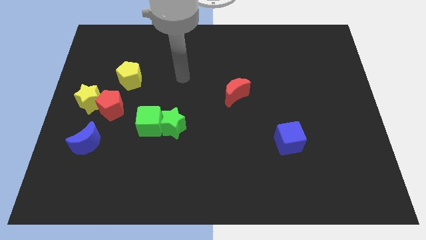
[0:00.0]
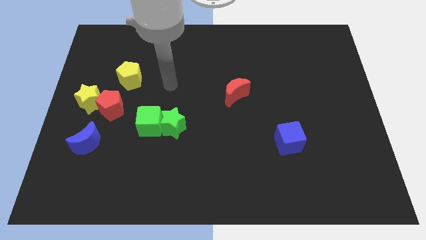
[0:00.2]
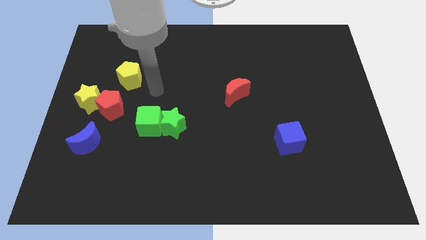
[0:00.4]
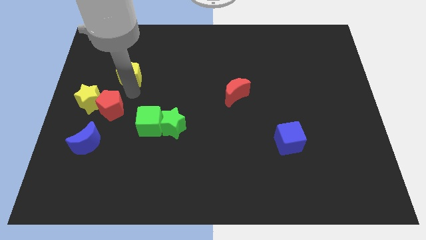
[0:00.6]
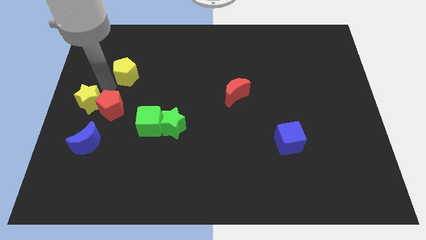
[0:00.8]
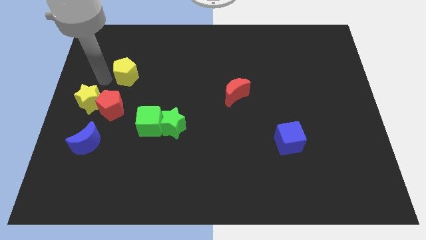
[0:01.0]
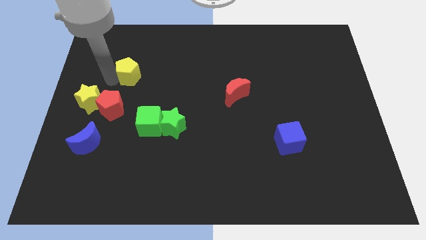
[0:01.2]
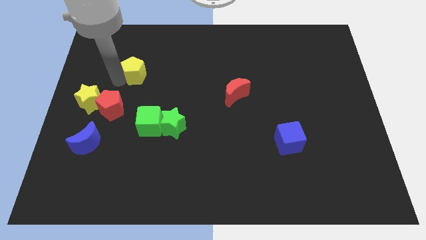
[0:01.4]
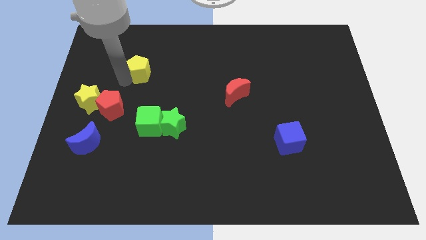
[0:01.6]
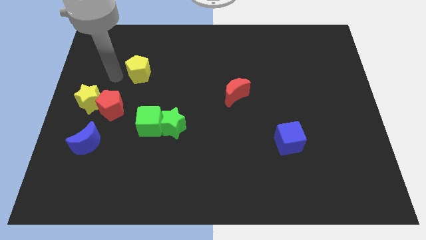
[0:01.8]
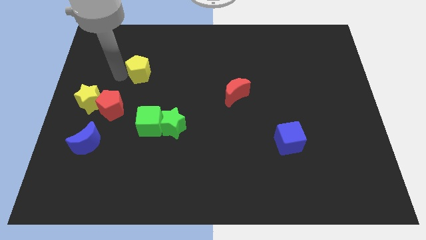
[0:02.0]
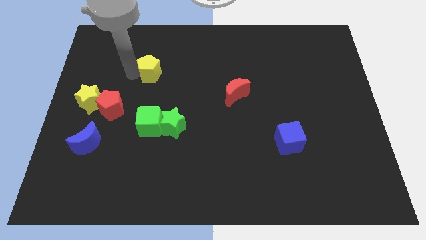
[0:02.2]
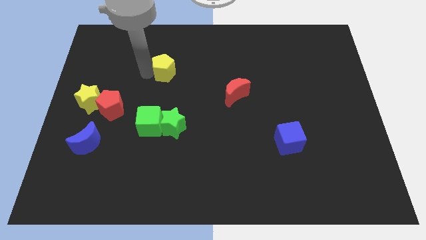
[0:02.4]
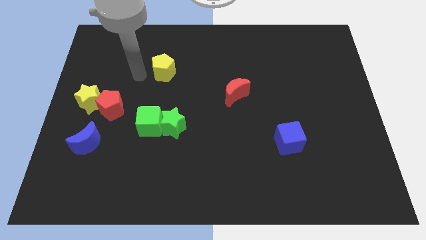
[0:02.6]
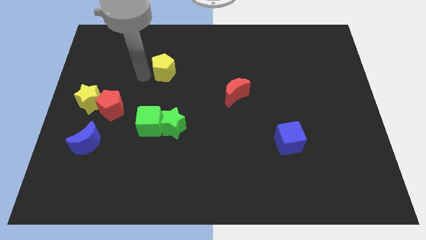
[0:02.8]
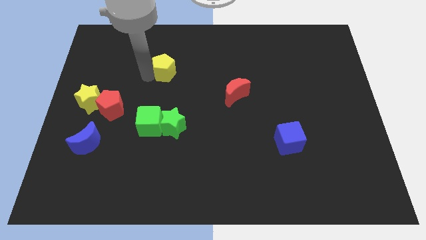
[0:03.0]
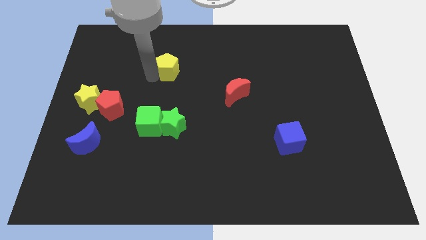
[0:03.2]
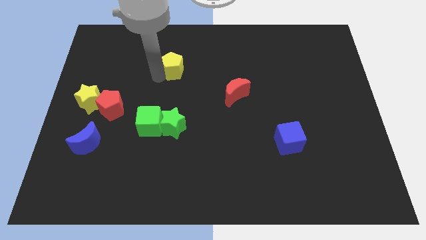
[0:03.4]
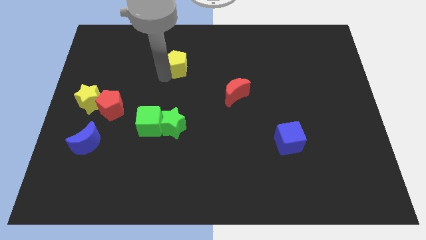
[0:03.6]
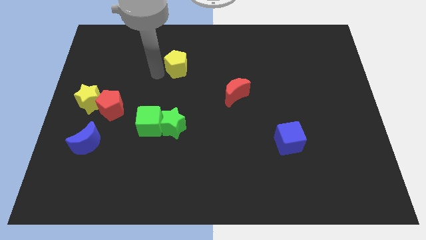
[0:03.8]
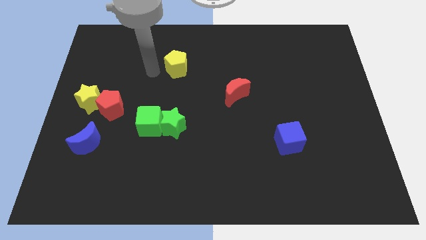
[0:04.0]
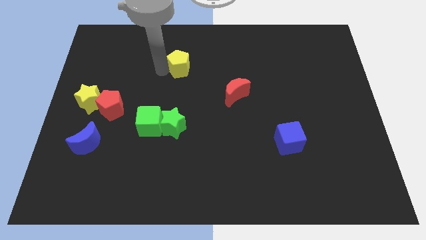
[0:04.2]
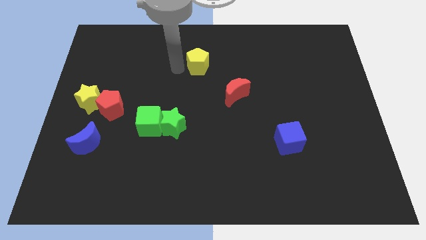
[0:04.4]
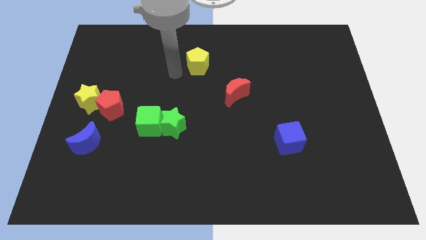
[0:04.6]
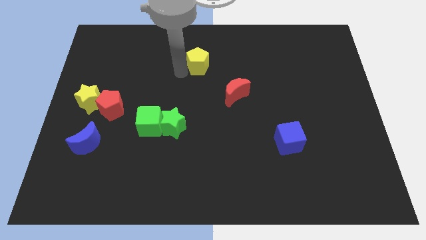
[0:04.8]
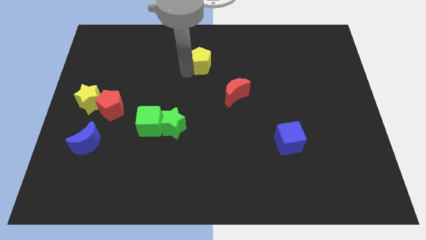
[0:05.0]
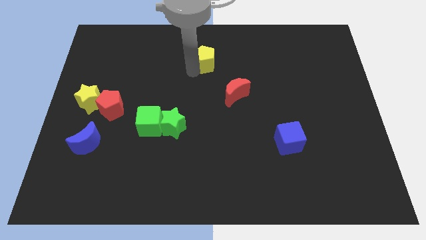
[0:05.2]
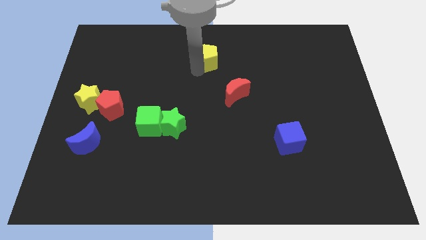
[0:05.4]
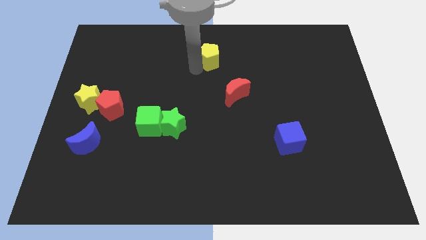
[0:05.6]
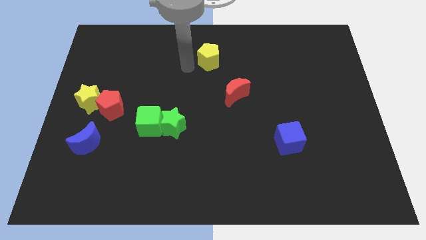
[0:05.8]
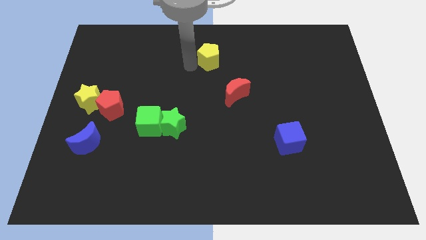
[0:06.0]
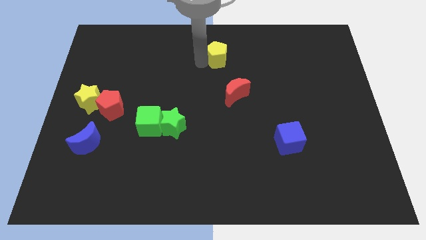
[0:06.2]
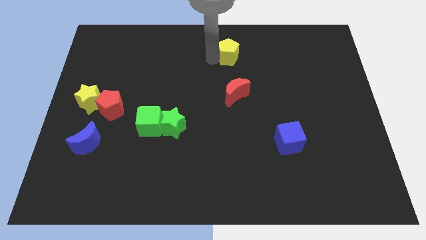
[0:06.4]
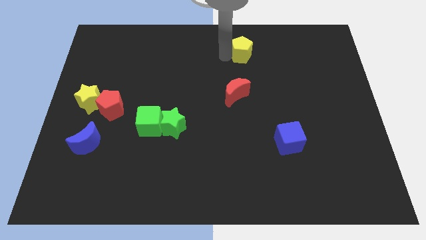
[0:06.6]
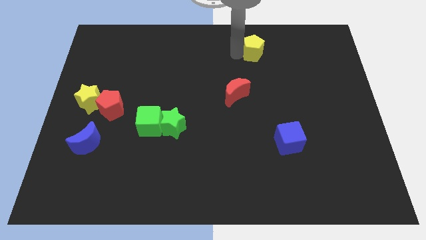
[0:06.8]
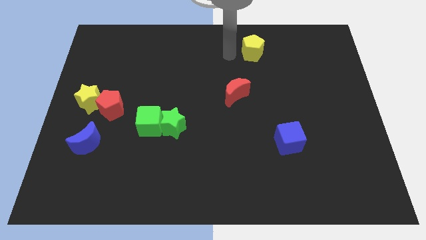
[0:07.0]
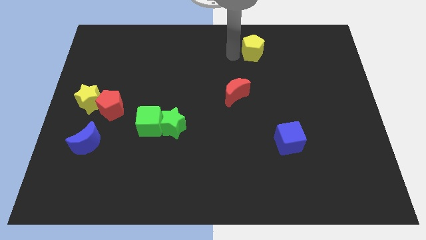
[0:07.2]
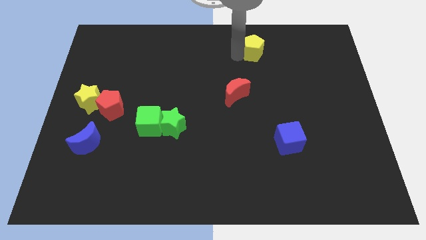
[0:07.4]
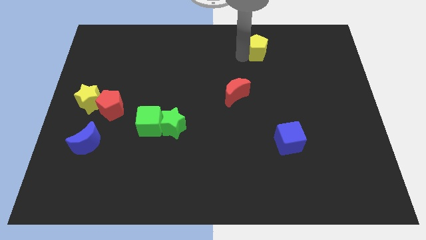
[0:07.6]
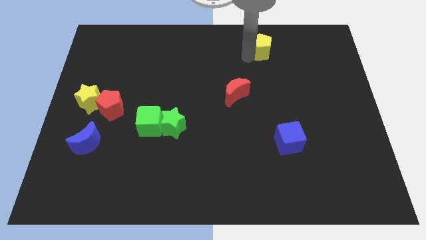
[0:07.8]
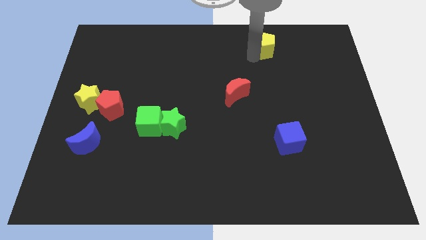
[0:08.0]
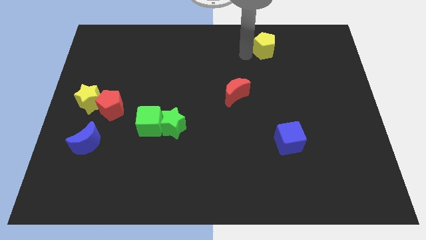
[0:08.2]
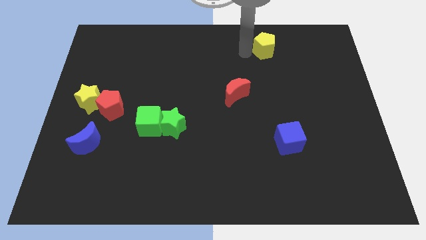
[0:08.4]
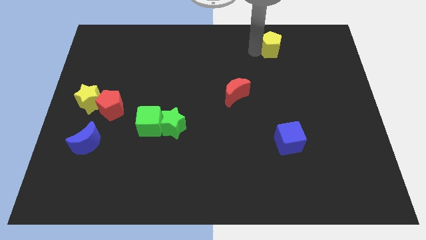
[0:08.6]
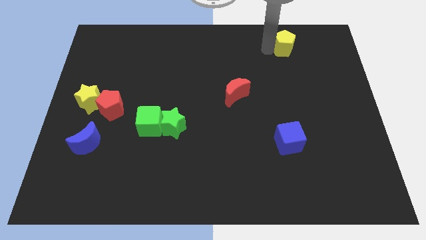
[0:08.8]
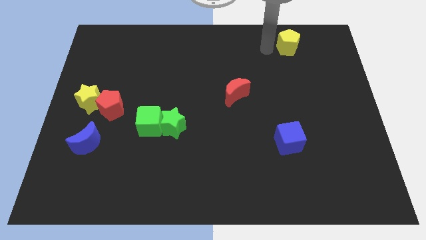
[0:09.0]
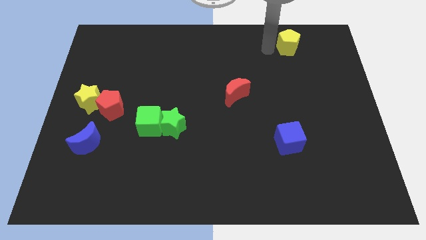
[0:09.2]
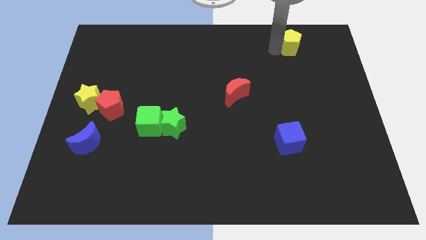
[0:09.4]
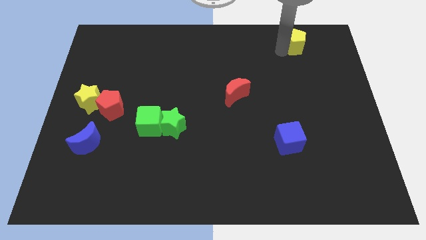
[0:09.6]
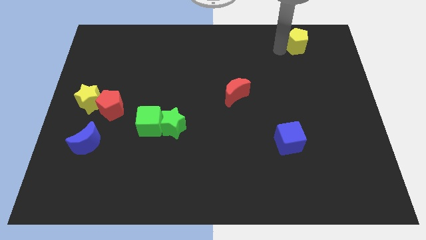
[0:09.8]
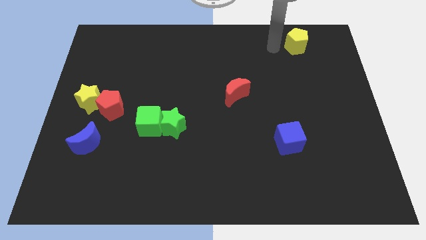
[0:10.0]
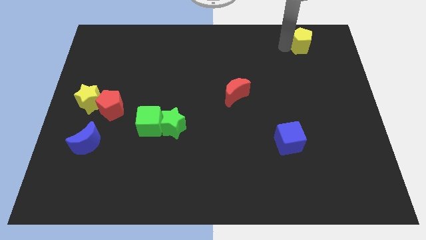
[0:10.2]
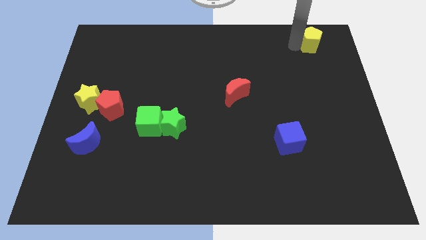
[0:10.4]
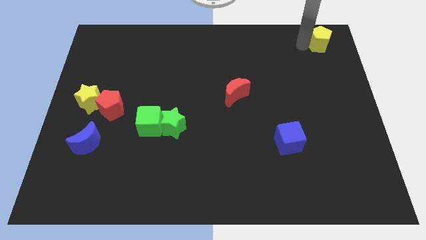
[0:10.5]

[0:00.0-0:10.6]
slide the yellow pentagon to the top right of the board

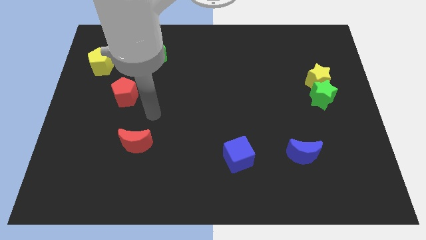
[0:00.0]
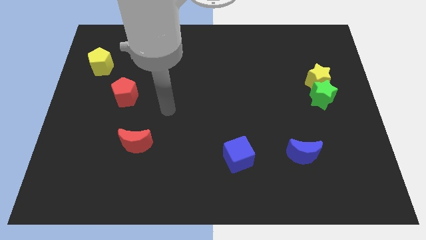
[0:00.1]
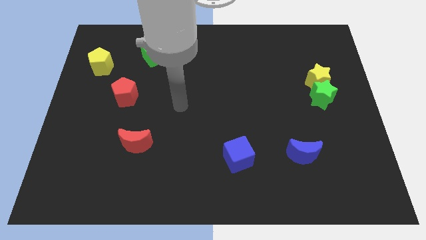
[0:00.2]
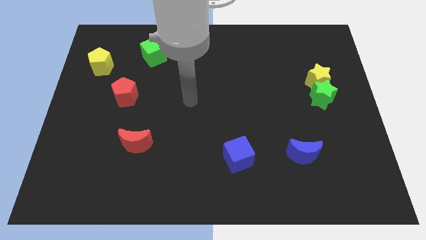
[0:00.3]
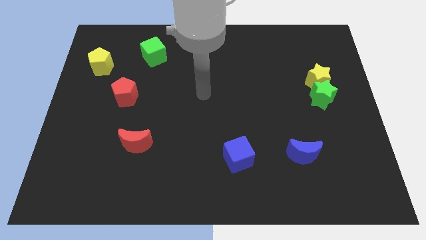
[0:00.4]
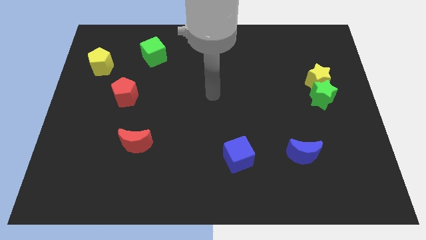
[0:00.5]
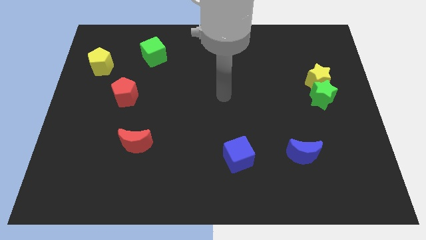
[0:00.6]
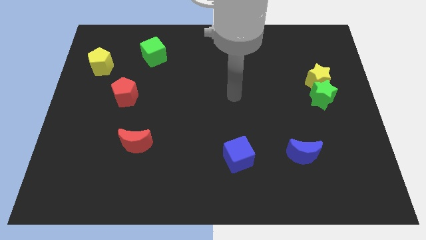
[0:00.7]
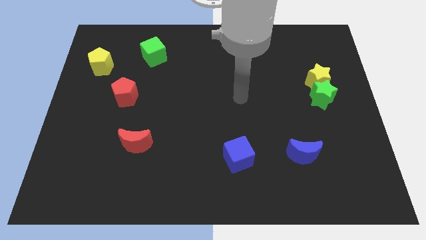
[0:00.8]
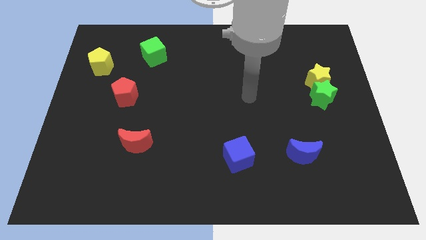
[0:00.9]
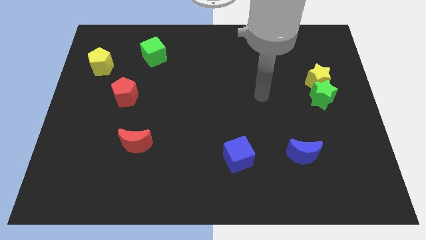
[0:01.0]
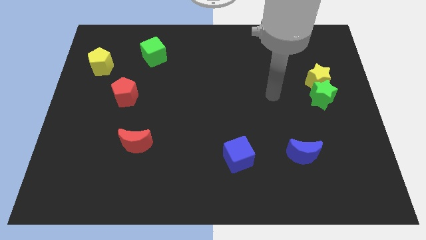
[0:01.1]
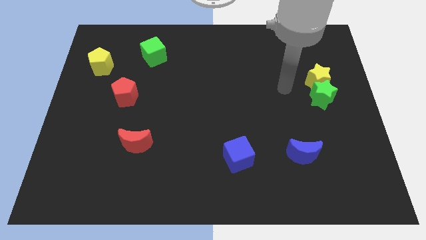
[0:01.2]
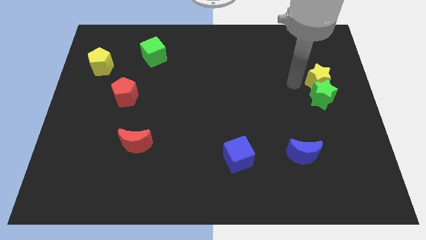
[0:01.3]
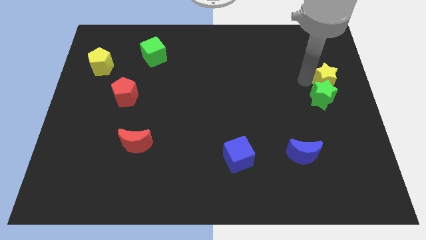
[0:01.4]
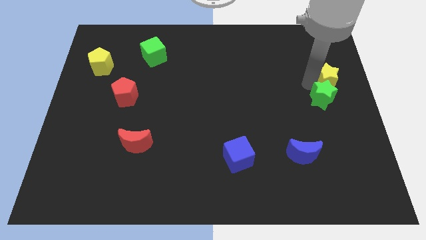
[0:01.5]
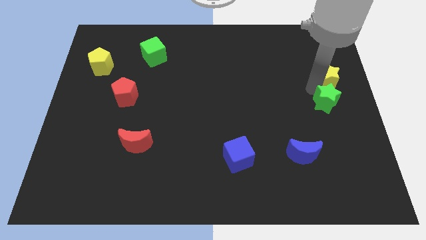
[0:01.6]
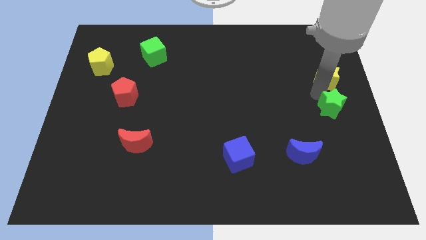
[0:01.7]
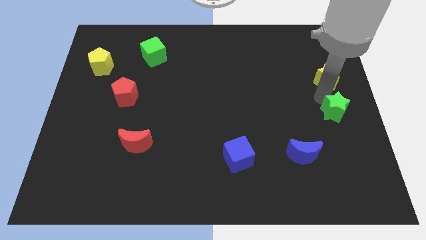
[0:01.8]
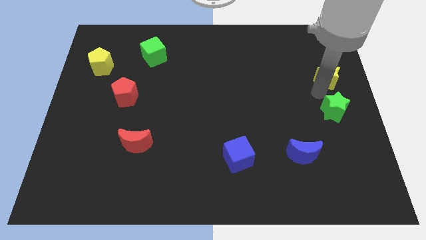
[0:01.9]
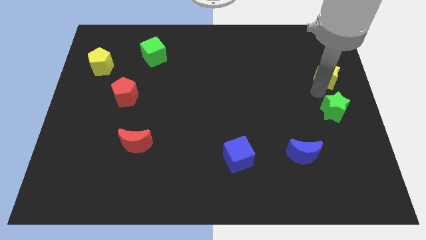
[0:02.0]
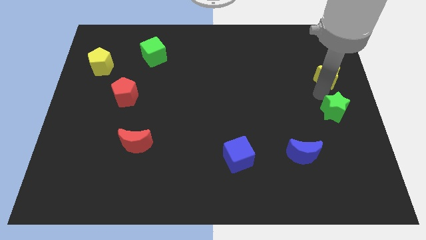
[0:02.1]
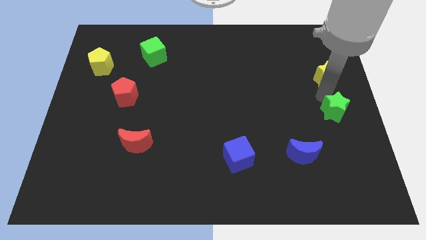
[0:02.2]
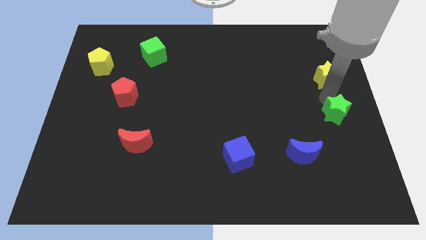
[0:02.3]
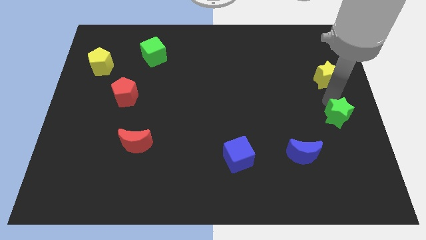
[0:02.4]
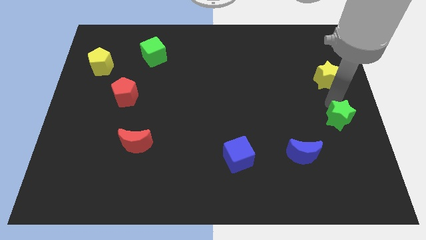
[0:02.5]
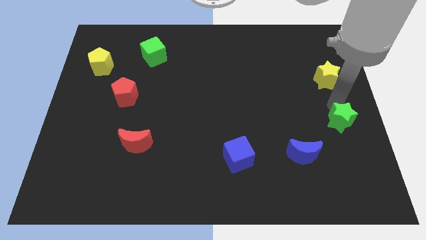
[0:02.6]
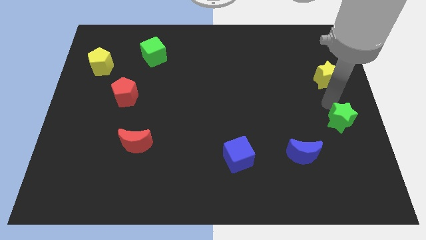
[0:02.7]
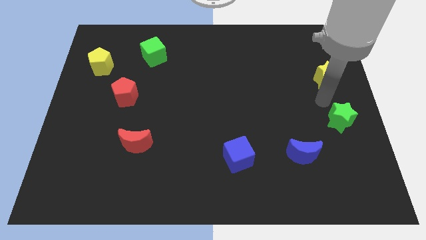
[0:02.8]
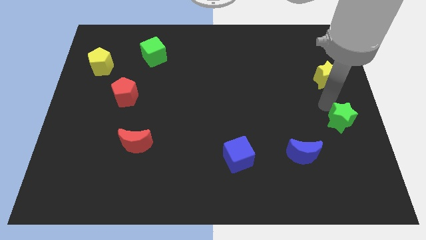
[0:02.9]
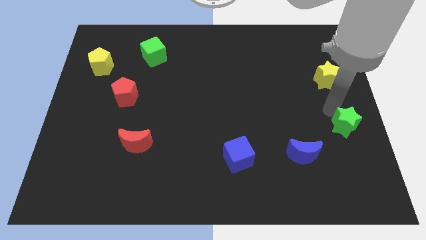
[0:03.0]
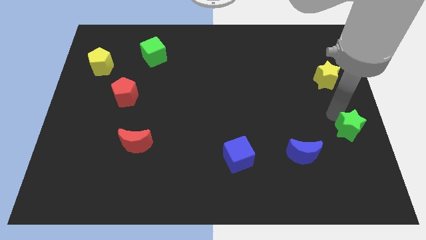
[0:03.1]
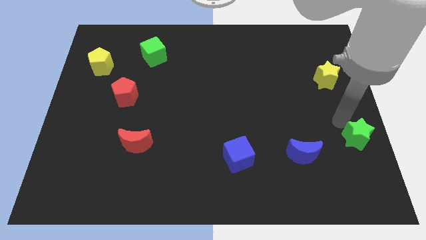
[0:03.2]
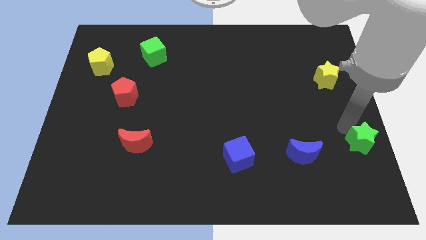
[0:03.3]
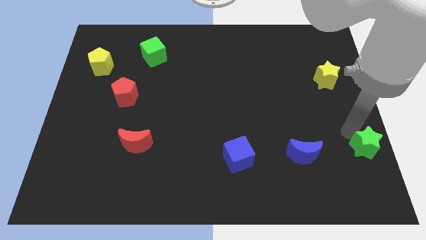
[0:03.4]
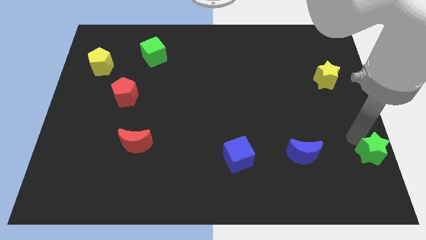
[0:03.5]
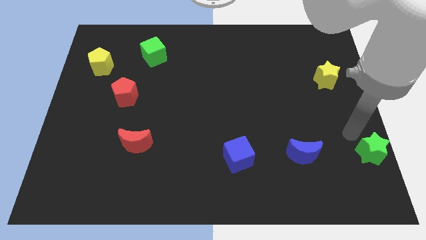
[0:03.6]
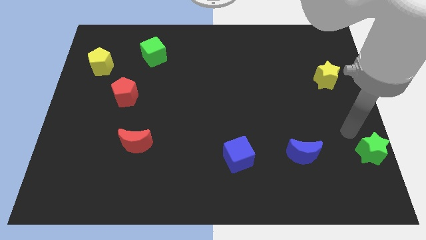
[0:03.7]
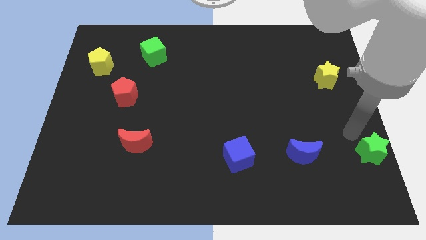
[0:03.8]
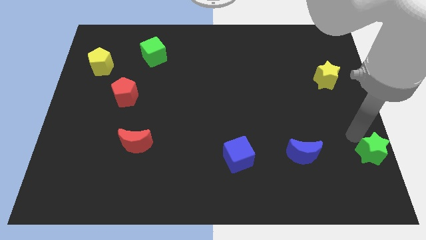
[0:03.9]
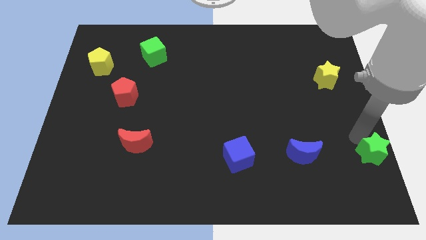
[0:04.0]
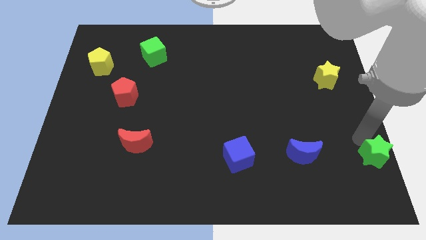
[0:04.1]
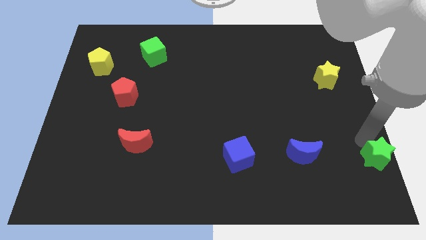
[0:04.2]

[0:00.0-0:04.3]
push the green star to the bottom right
